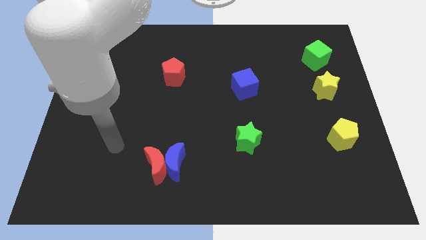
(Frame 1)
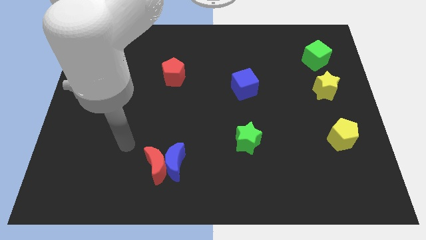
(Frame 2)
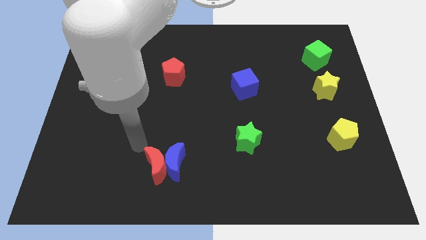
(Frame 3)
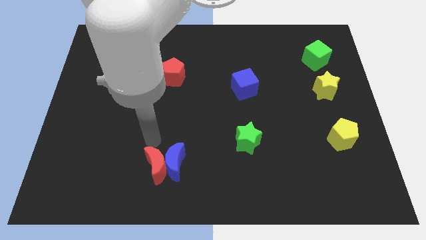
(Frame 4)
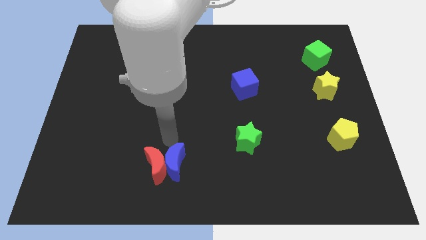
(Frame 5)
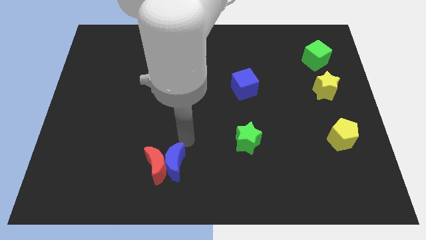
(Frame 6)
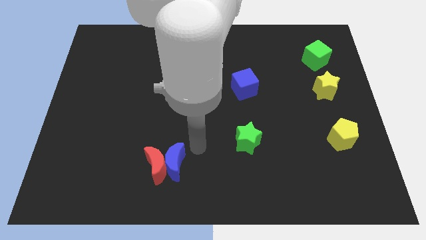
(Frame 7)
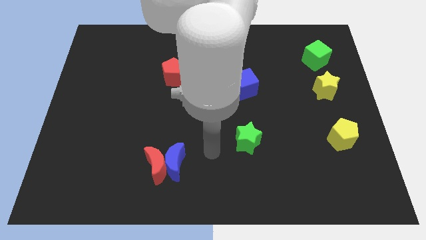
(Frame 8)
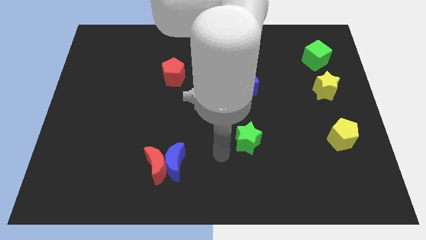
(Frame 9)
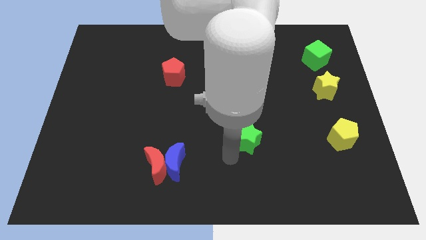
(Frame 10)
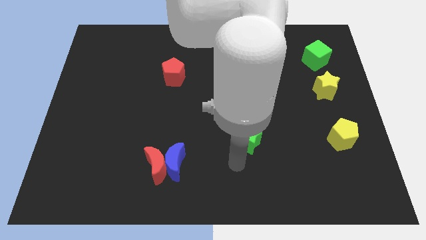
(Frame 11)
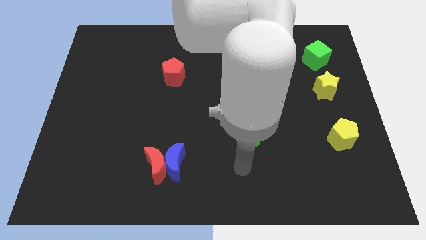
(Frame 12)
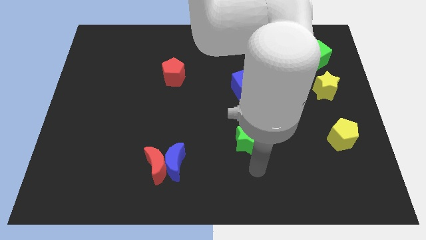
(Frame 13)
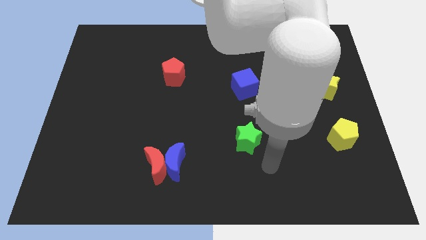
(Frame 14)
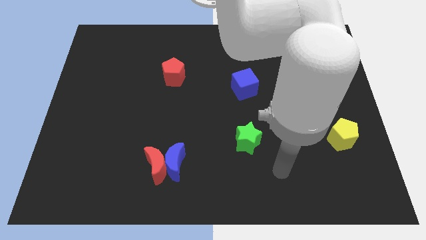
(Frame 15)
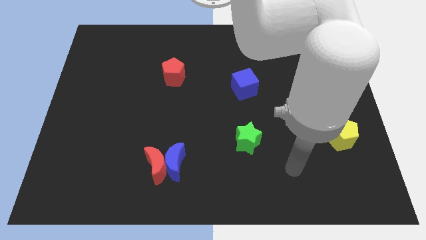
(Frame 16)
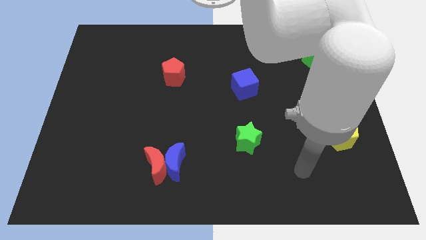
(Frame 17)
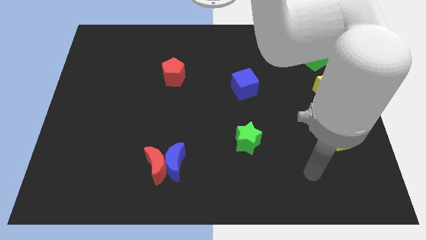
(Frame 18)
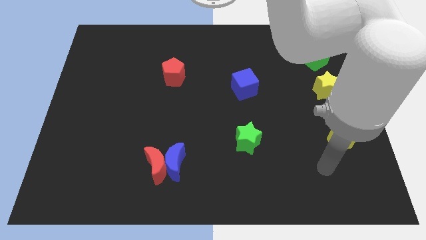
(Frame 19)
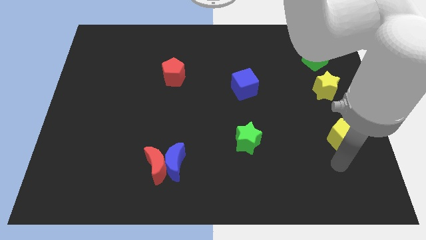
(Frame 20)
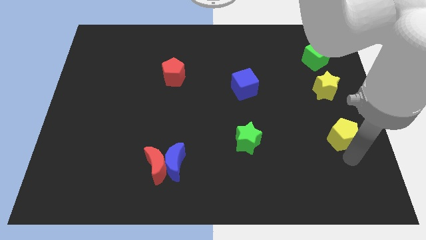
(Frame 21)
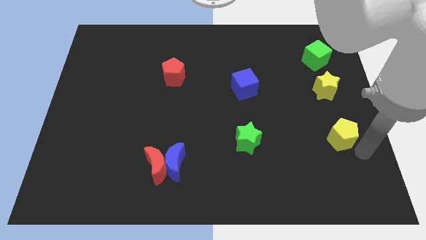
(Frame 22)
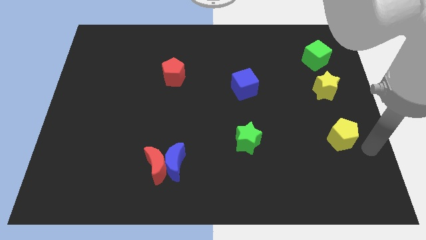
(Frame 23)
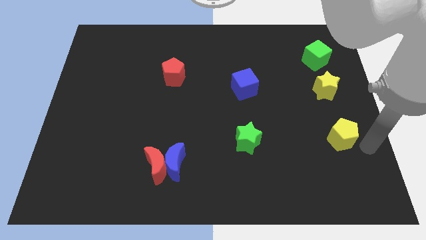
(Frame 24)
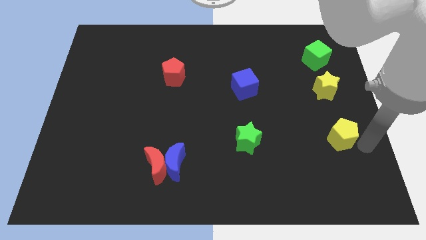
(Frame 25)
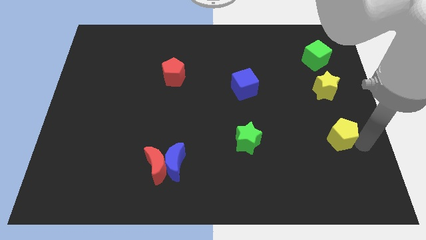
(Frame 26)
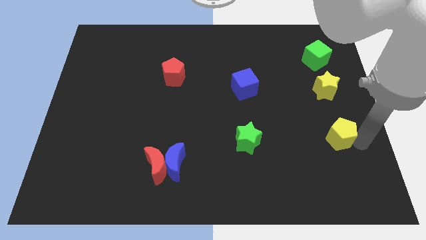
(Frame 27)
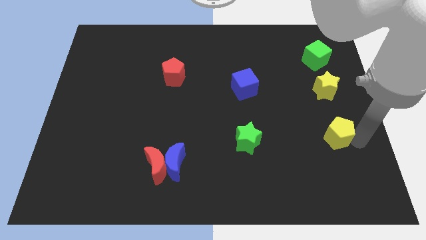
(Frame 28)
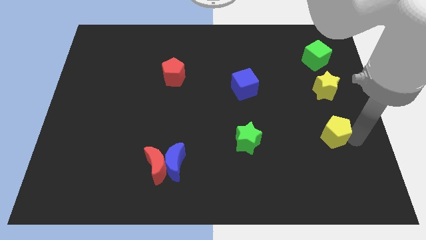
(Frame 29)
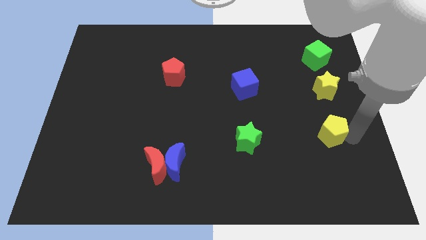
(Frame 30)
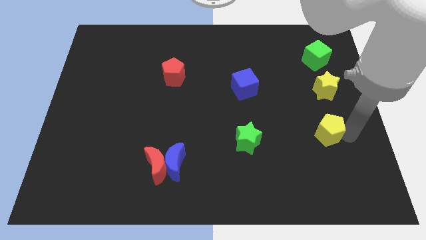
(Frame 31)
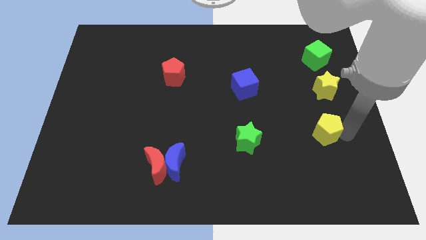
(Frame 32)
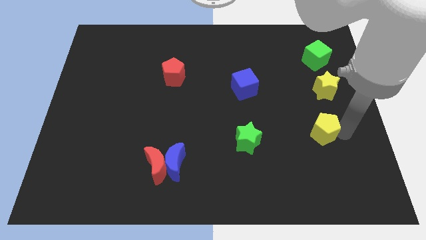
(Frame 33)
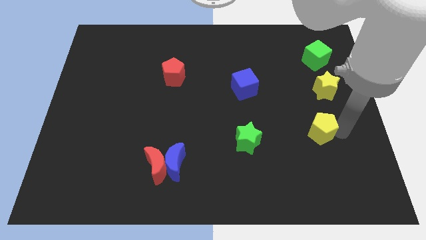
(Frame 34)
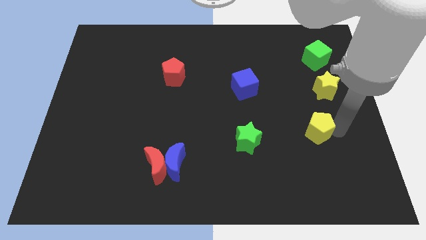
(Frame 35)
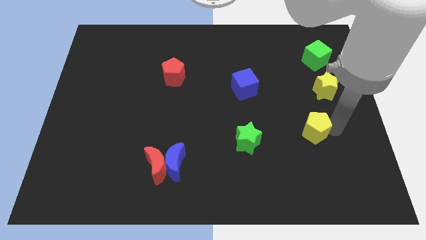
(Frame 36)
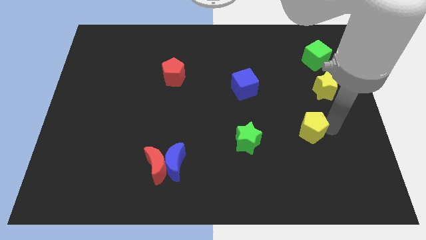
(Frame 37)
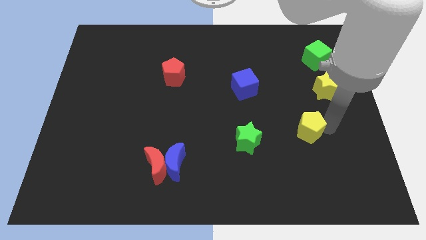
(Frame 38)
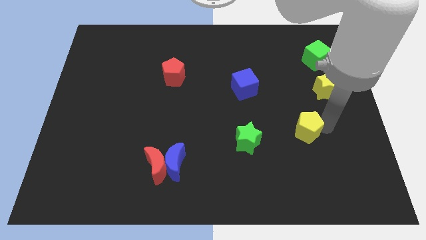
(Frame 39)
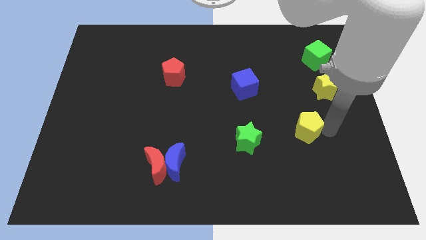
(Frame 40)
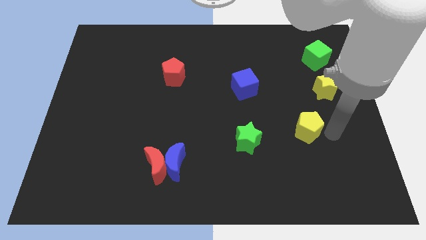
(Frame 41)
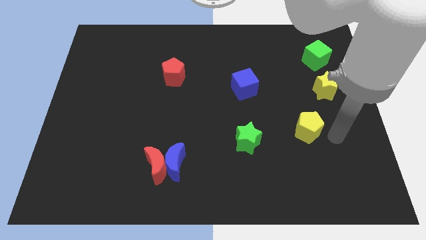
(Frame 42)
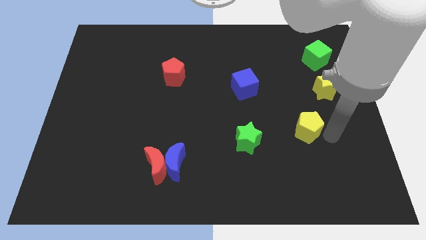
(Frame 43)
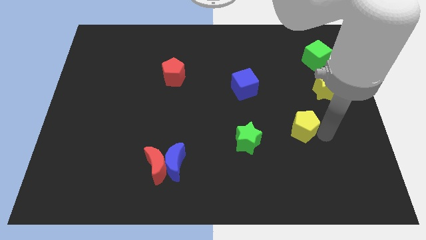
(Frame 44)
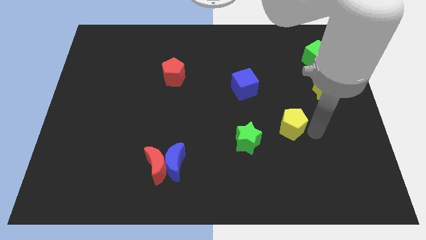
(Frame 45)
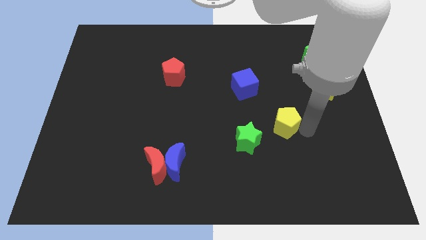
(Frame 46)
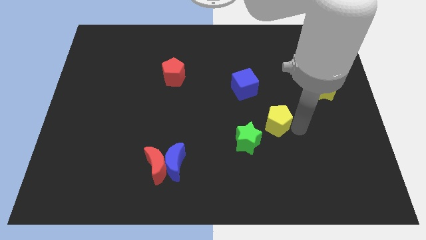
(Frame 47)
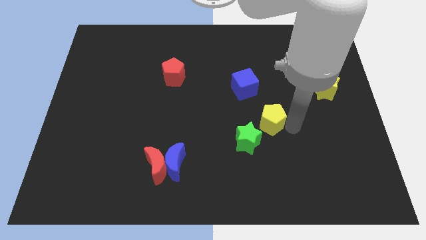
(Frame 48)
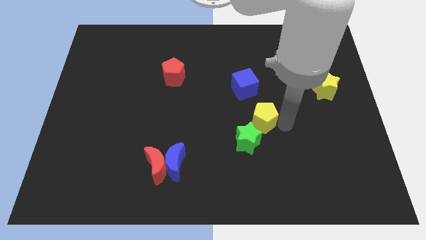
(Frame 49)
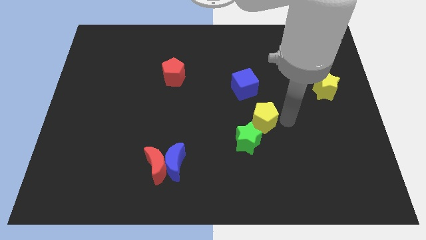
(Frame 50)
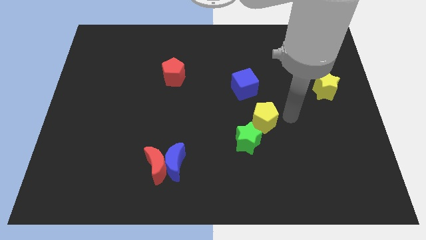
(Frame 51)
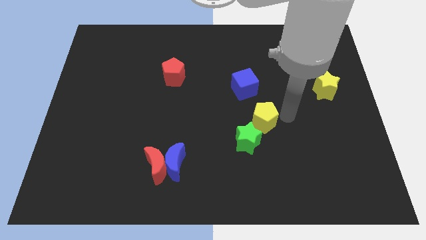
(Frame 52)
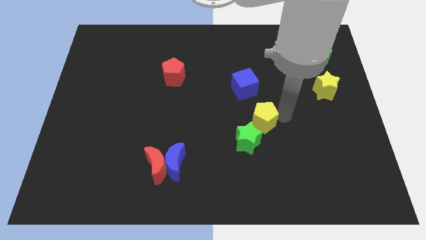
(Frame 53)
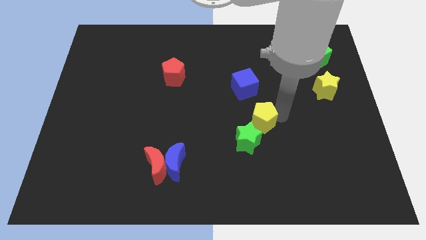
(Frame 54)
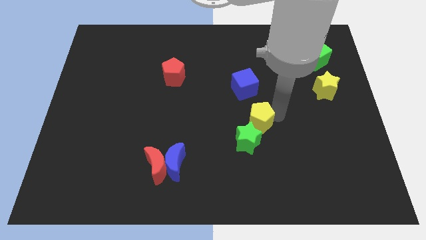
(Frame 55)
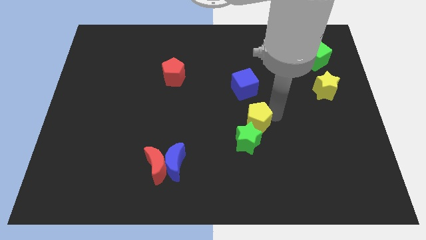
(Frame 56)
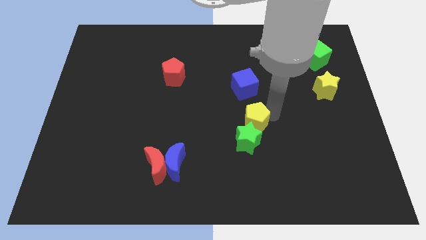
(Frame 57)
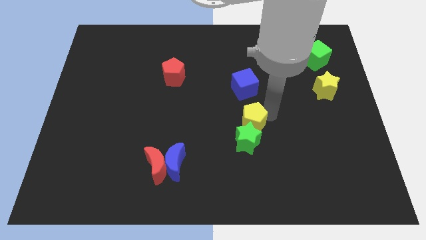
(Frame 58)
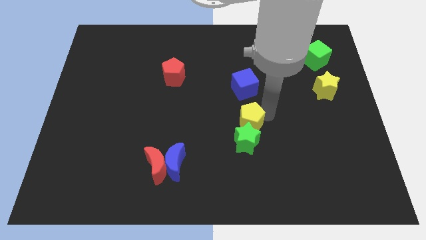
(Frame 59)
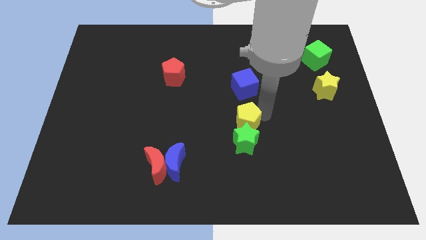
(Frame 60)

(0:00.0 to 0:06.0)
slide the yellow pentagon to the left

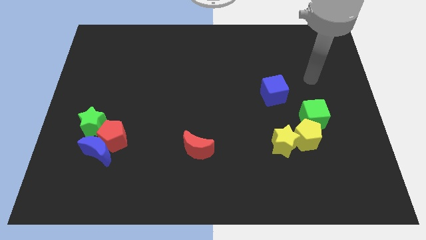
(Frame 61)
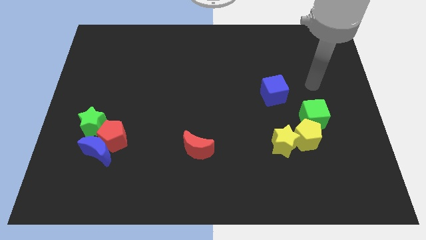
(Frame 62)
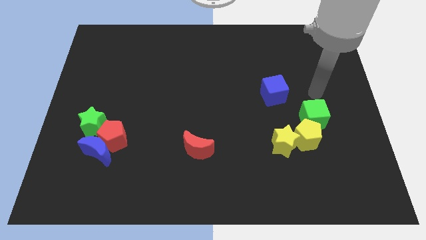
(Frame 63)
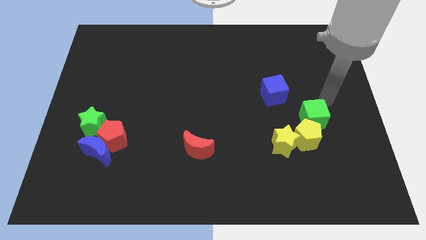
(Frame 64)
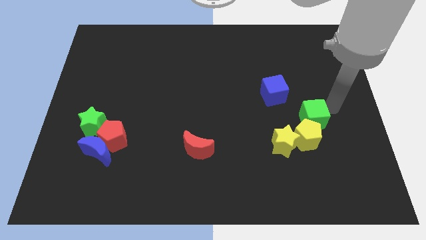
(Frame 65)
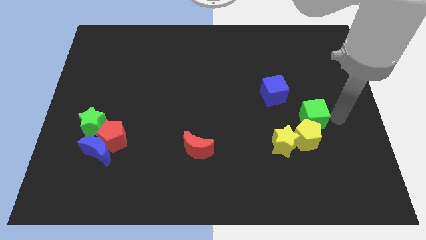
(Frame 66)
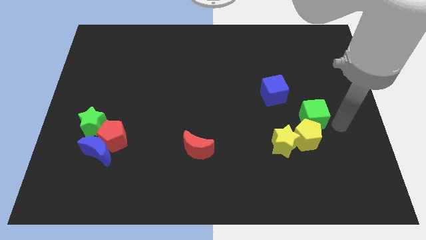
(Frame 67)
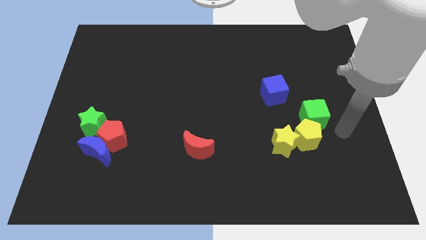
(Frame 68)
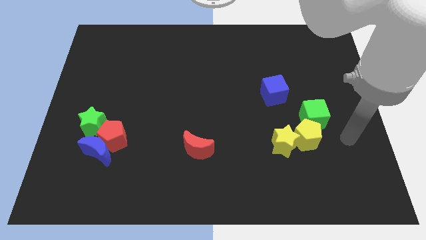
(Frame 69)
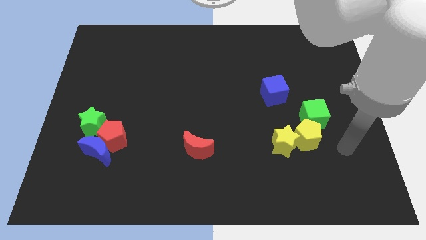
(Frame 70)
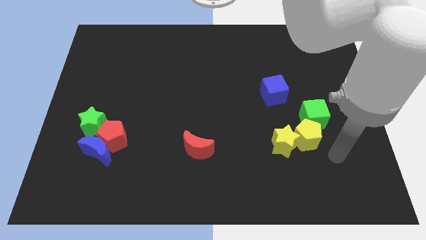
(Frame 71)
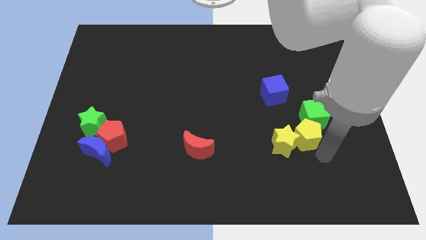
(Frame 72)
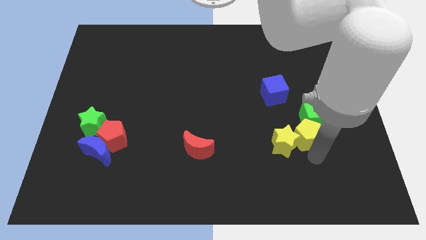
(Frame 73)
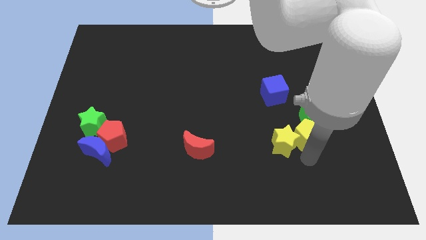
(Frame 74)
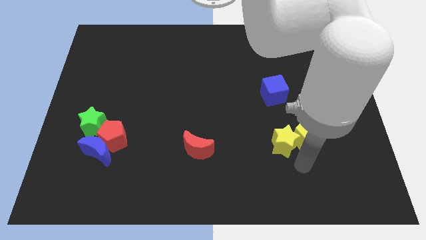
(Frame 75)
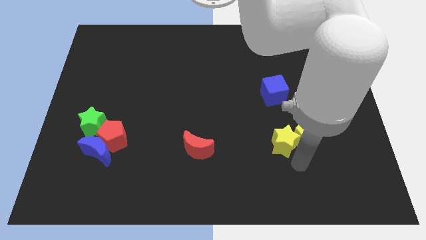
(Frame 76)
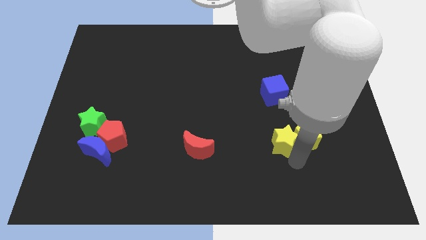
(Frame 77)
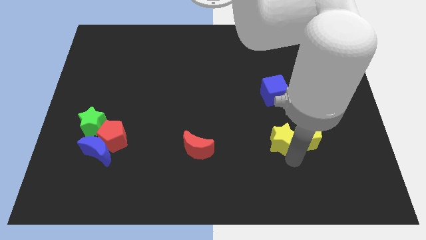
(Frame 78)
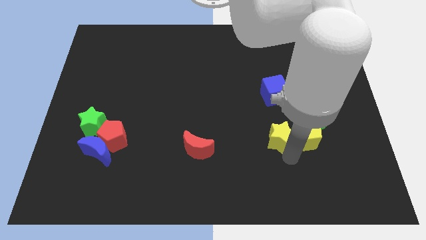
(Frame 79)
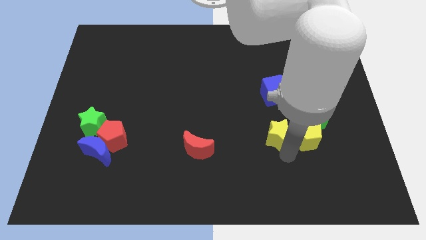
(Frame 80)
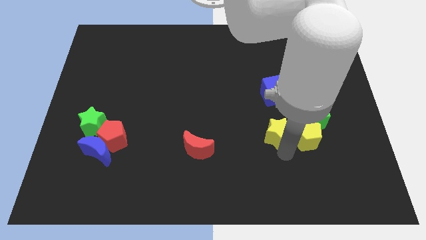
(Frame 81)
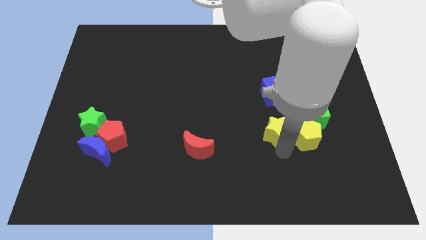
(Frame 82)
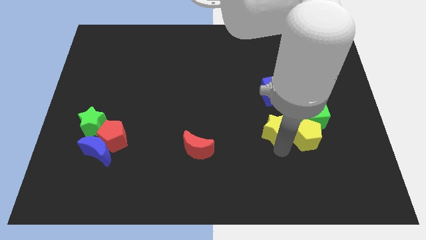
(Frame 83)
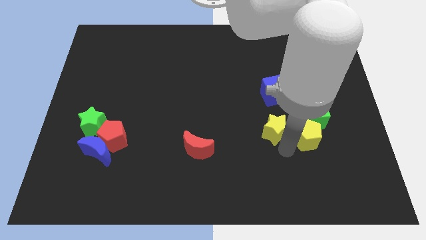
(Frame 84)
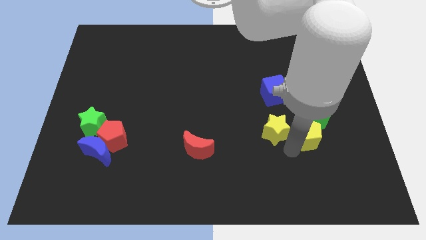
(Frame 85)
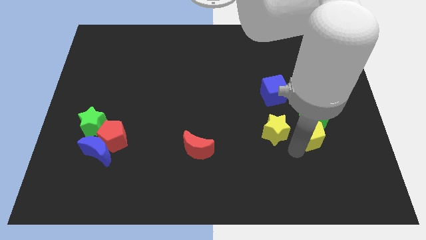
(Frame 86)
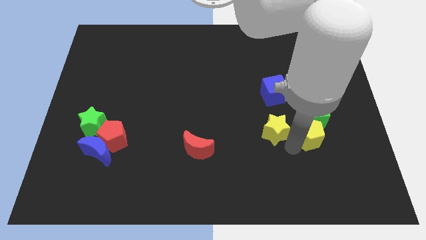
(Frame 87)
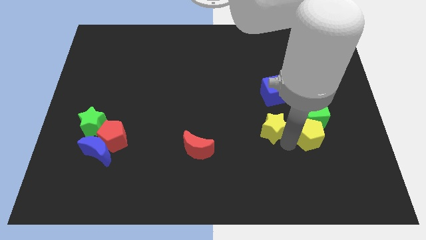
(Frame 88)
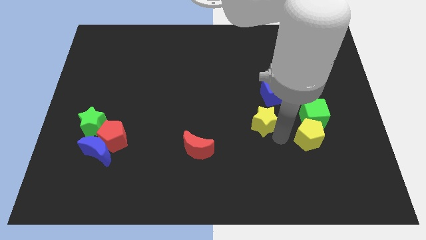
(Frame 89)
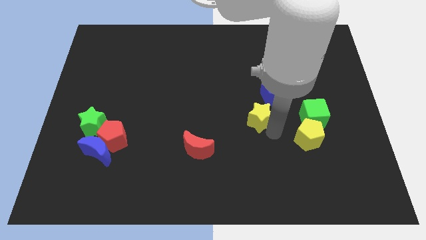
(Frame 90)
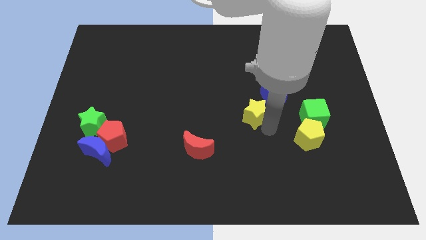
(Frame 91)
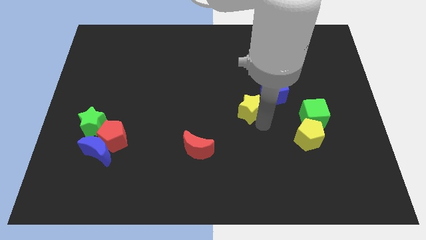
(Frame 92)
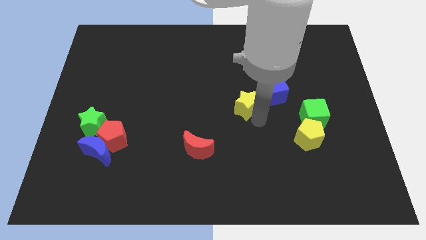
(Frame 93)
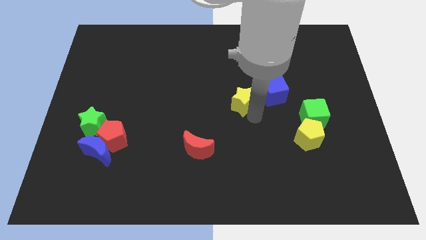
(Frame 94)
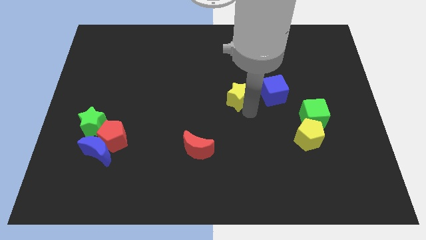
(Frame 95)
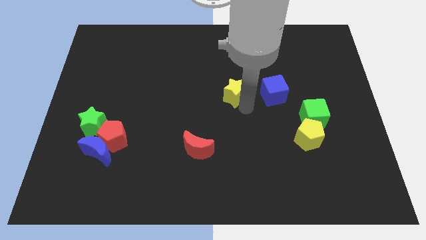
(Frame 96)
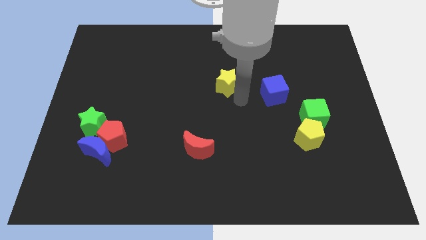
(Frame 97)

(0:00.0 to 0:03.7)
move the yellow star diagonally upwards and left
